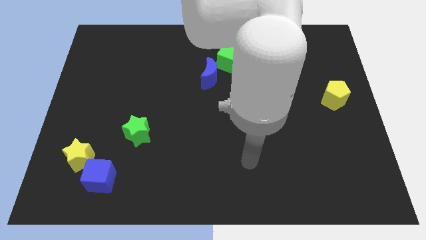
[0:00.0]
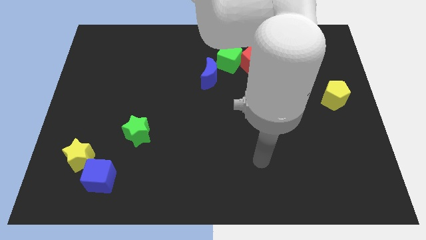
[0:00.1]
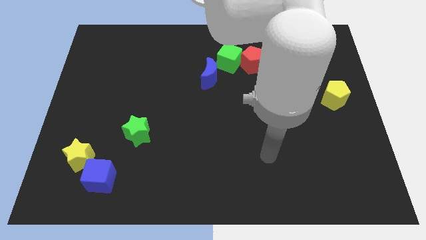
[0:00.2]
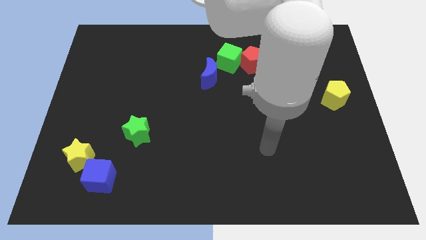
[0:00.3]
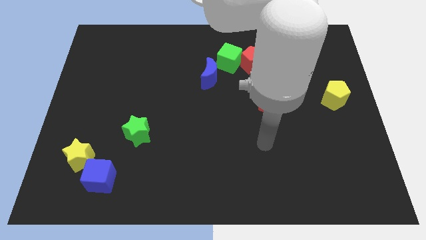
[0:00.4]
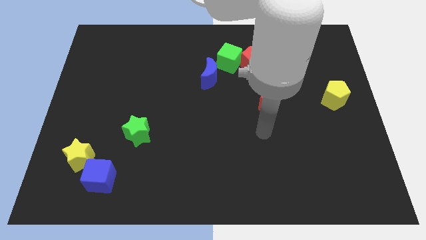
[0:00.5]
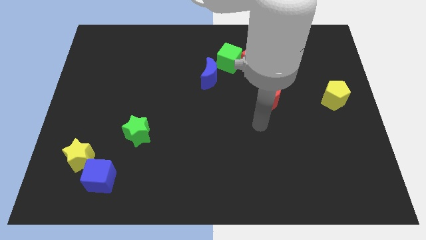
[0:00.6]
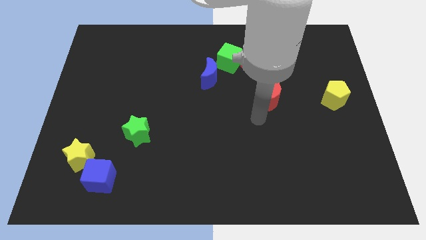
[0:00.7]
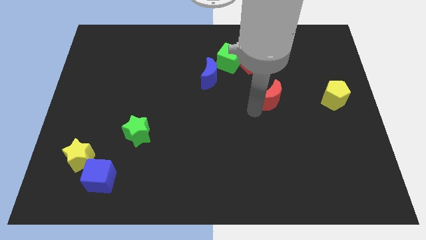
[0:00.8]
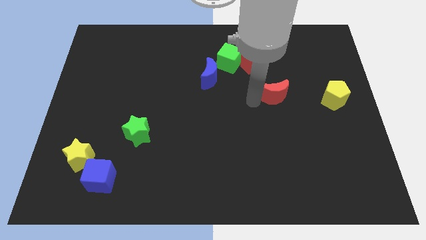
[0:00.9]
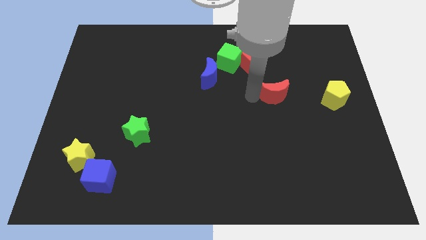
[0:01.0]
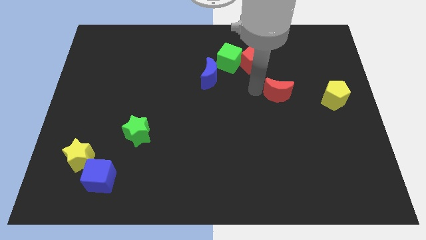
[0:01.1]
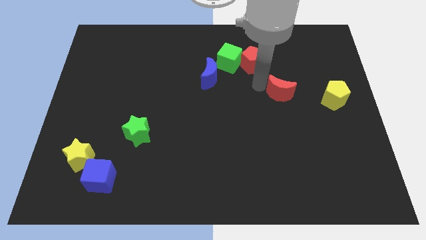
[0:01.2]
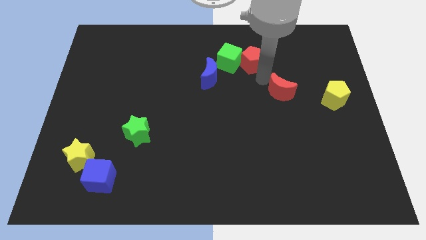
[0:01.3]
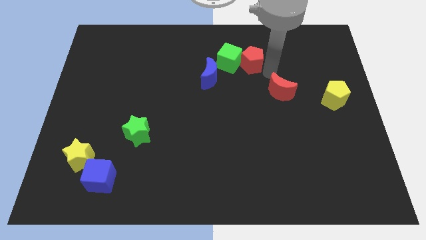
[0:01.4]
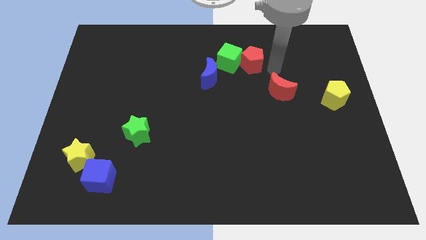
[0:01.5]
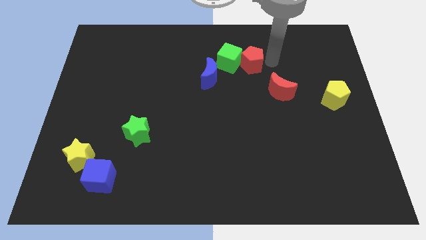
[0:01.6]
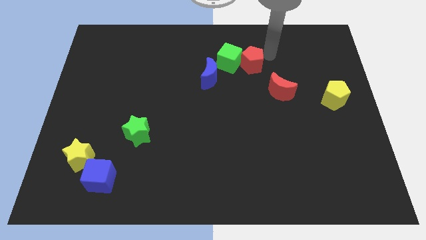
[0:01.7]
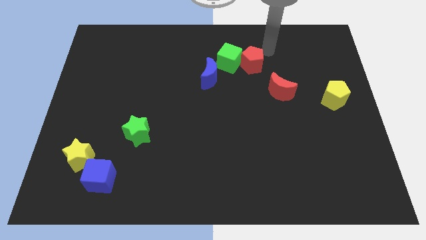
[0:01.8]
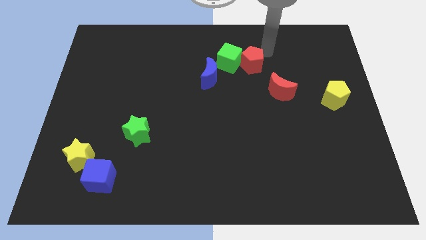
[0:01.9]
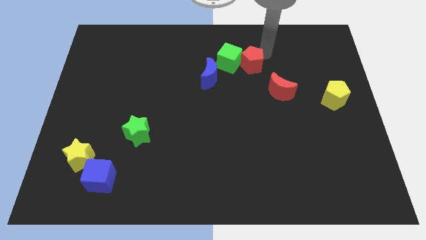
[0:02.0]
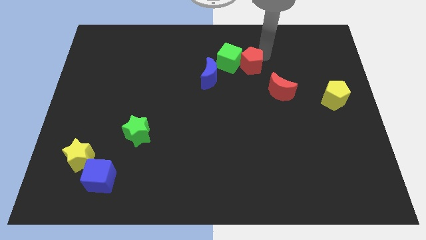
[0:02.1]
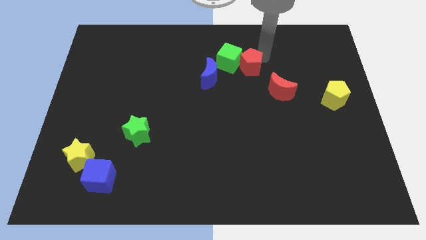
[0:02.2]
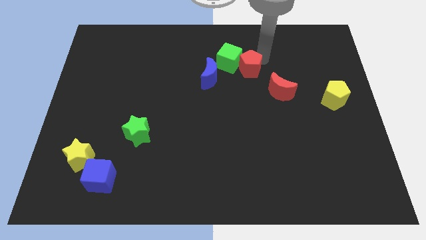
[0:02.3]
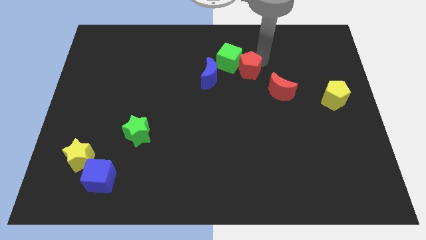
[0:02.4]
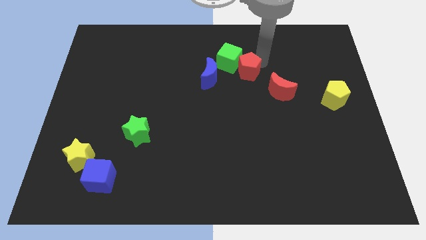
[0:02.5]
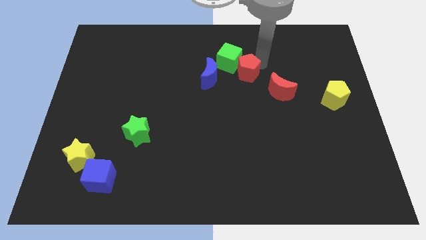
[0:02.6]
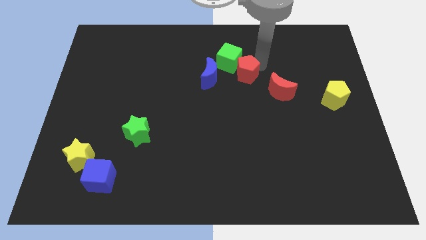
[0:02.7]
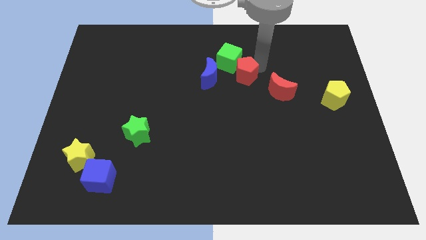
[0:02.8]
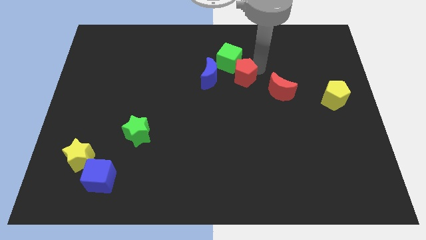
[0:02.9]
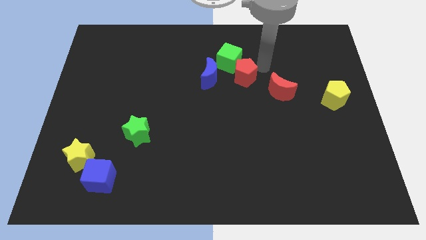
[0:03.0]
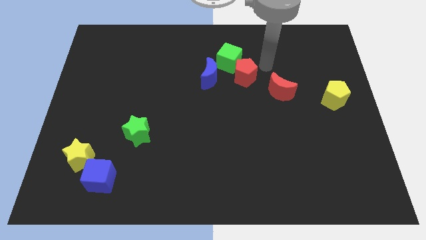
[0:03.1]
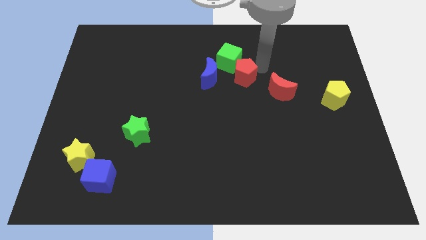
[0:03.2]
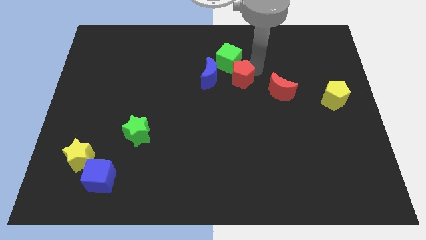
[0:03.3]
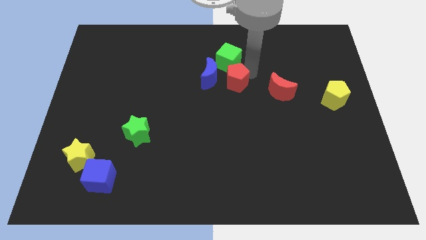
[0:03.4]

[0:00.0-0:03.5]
slightly move the red pentagon downwards and left diagonally

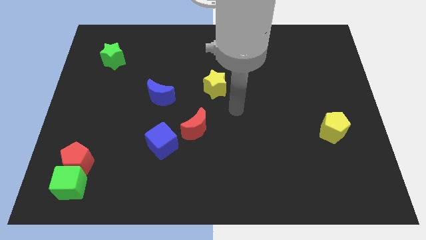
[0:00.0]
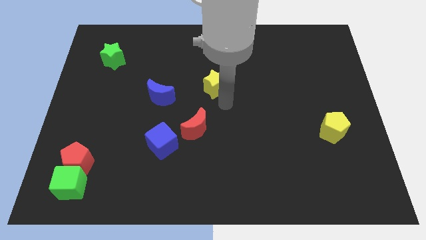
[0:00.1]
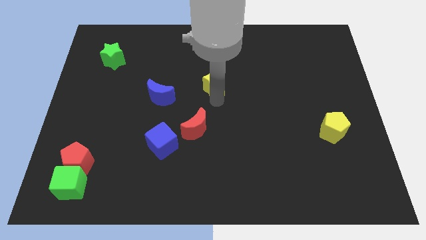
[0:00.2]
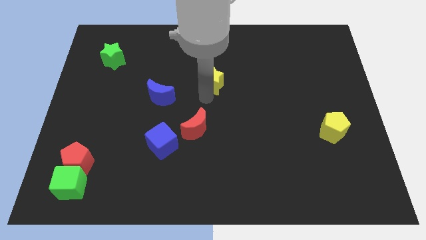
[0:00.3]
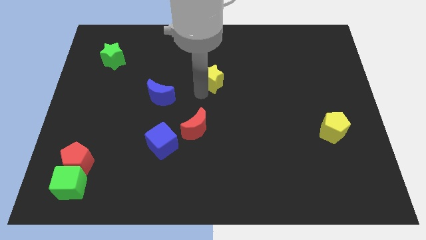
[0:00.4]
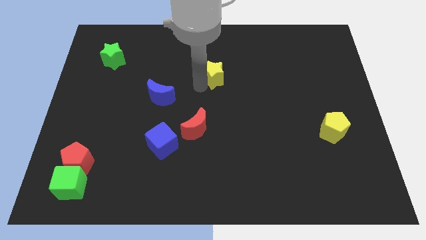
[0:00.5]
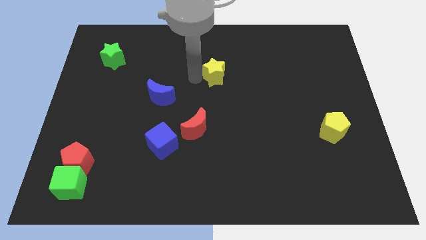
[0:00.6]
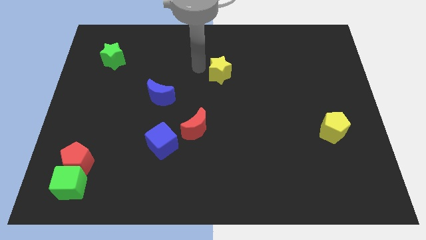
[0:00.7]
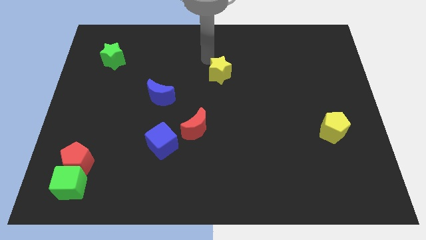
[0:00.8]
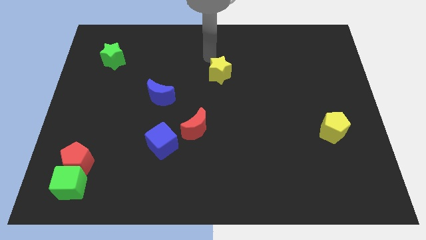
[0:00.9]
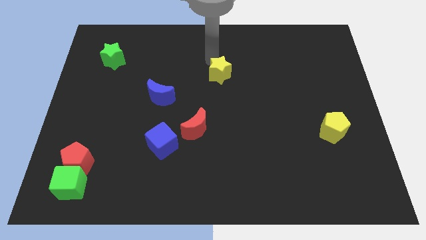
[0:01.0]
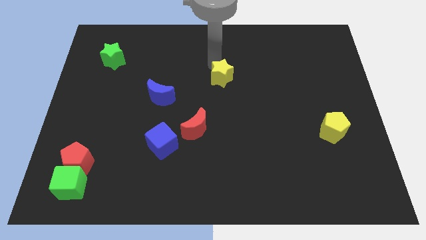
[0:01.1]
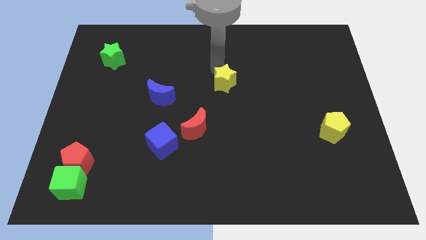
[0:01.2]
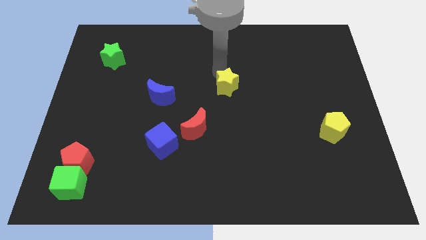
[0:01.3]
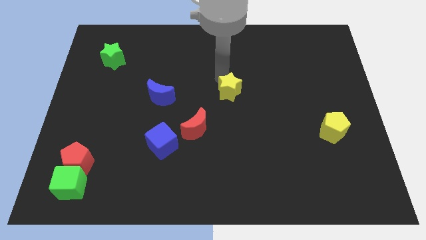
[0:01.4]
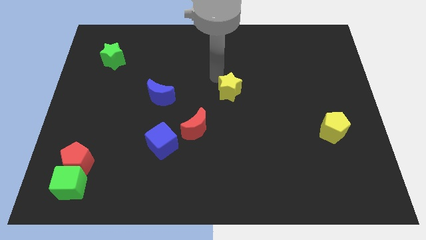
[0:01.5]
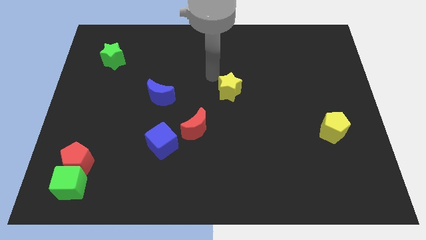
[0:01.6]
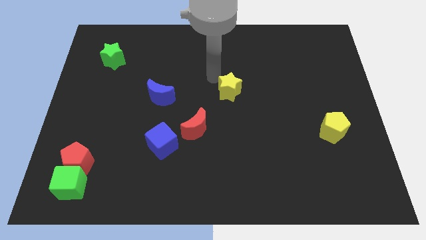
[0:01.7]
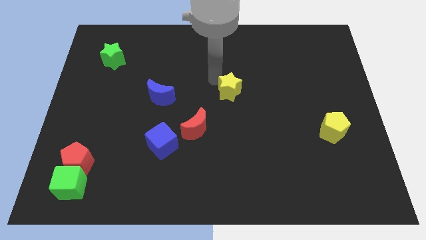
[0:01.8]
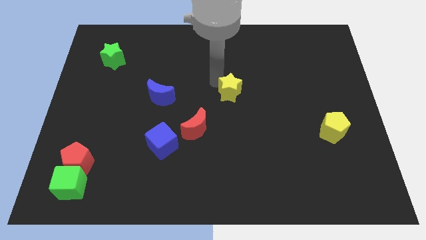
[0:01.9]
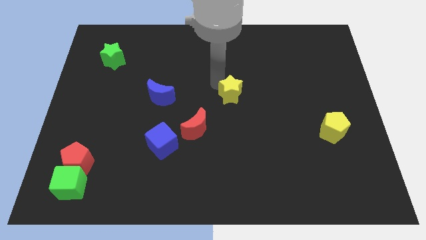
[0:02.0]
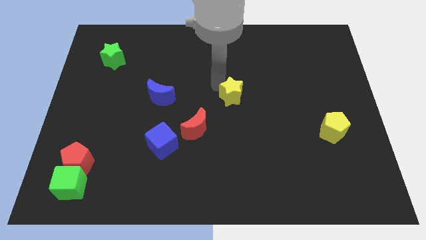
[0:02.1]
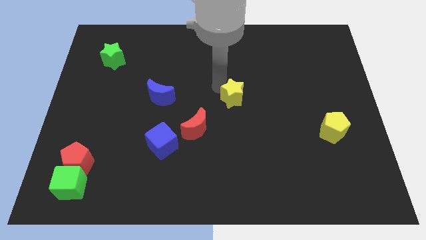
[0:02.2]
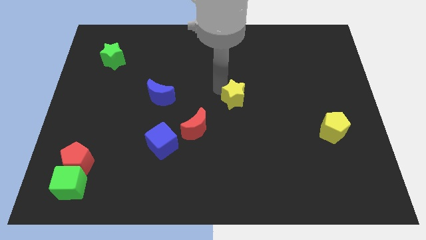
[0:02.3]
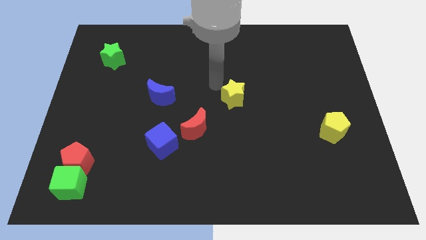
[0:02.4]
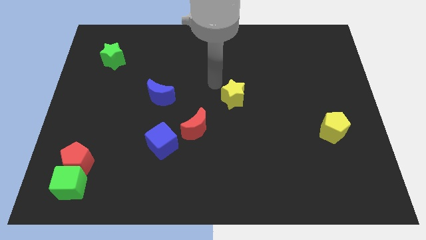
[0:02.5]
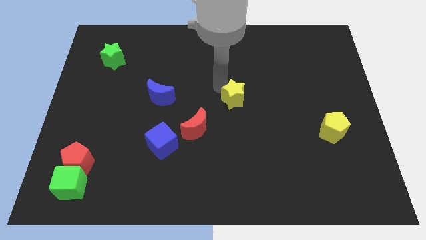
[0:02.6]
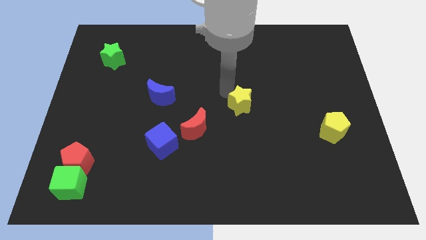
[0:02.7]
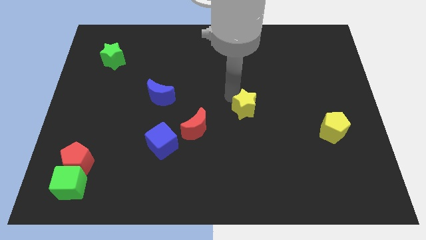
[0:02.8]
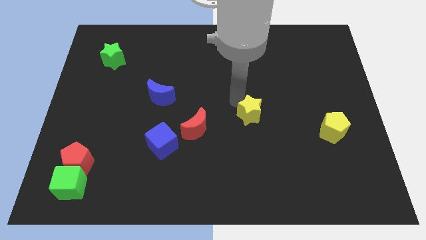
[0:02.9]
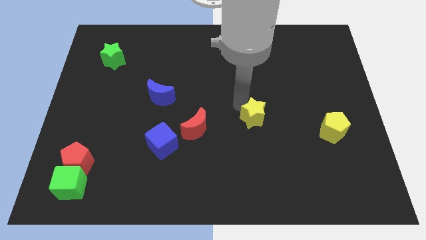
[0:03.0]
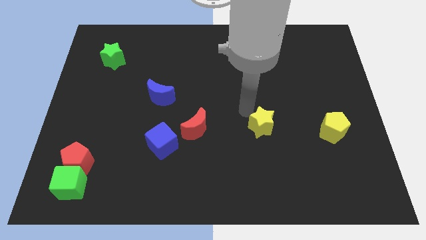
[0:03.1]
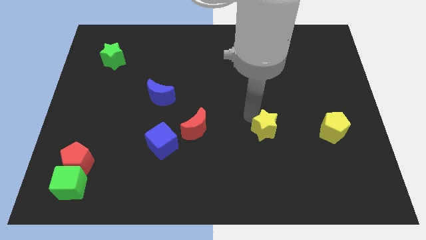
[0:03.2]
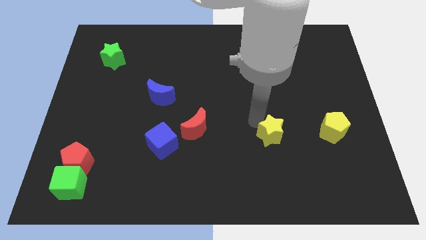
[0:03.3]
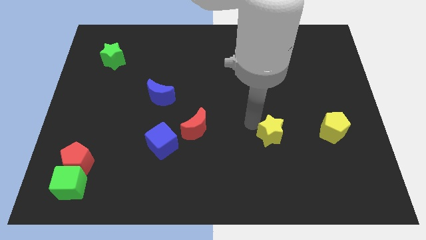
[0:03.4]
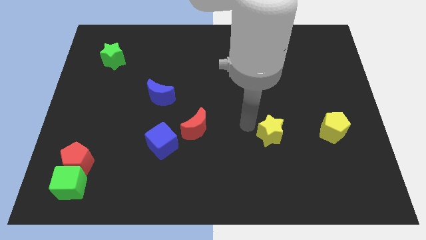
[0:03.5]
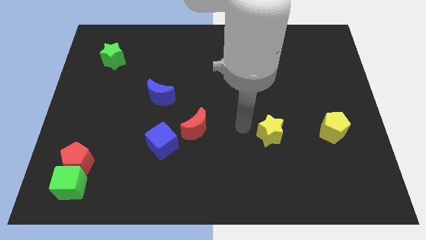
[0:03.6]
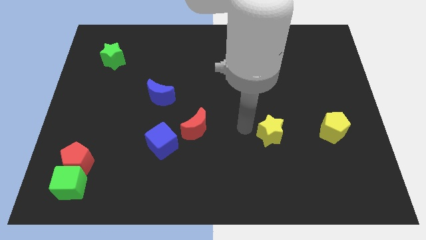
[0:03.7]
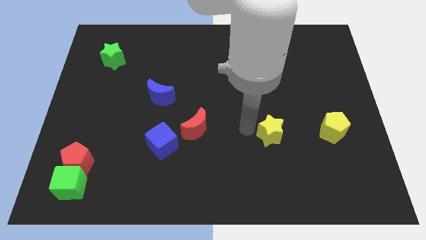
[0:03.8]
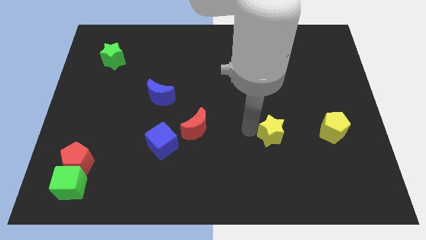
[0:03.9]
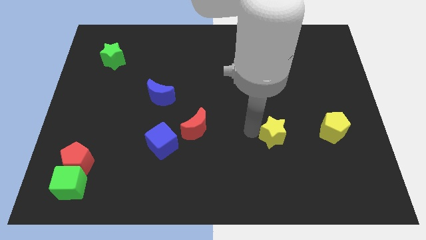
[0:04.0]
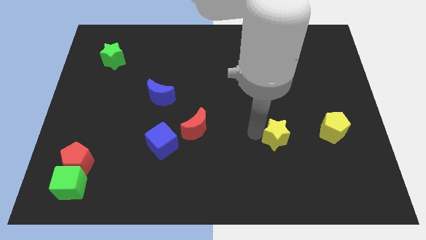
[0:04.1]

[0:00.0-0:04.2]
slide the yellow star downwards and then to the right

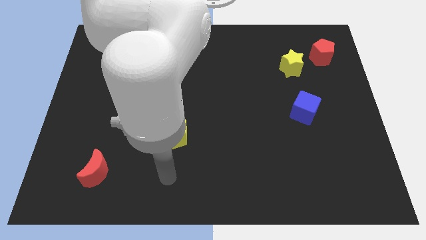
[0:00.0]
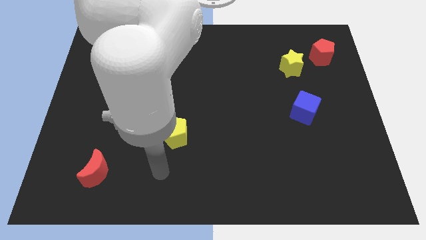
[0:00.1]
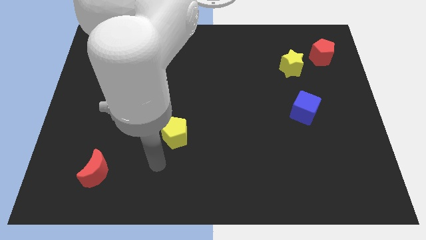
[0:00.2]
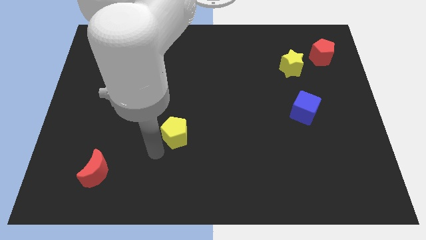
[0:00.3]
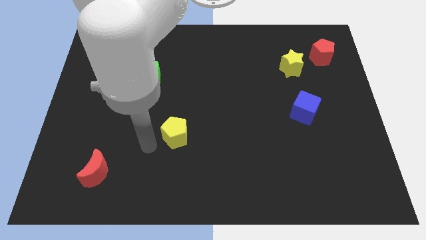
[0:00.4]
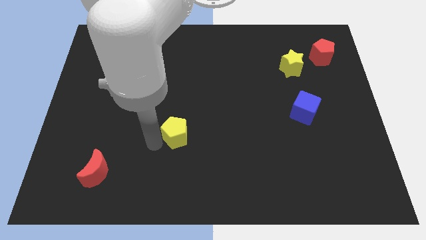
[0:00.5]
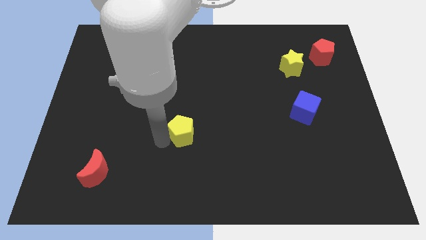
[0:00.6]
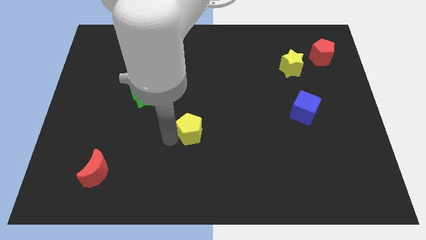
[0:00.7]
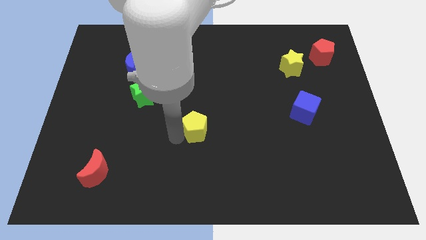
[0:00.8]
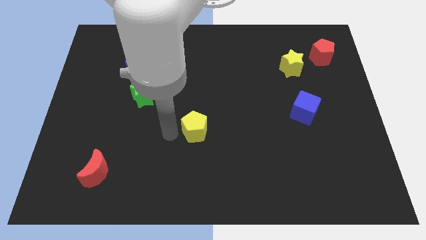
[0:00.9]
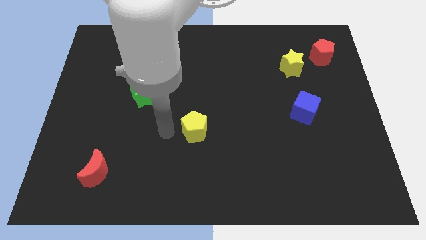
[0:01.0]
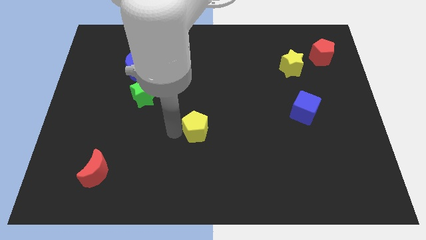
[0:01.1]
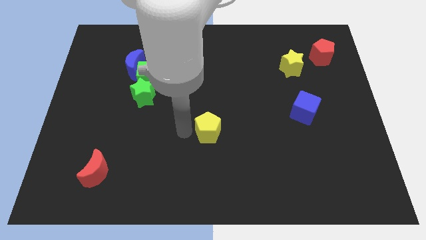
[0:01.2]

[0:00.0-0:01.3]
slide the yellow pentagon right slightly
